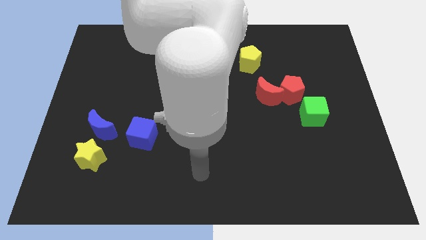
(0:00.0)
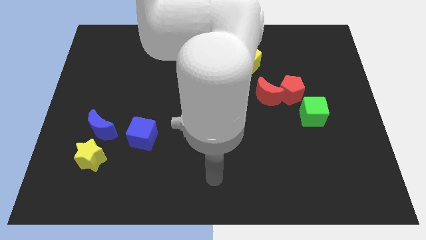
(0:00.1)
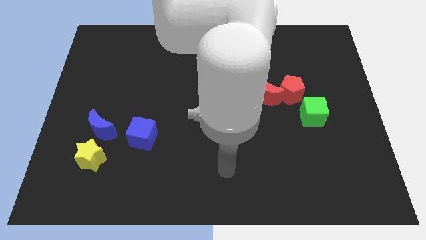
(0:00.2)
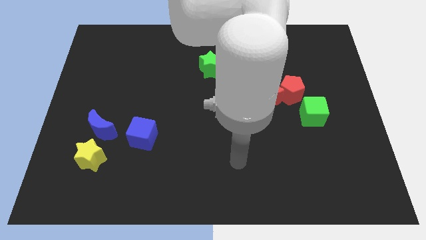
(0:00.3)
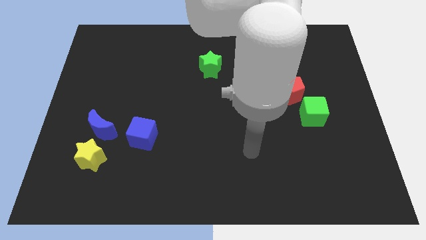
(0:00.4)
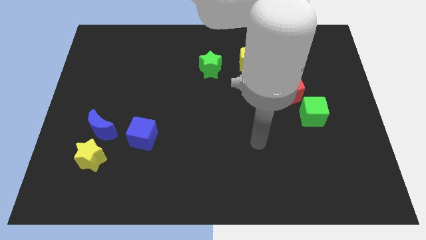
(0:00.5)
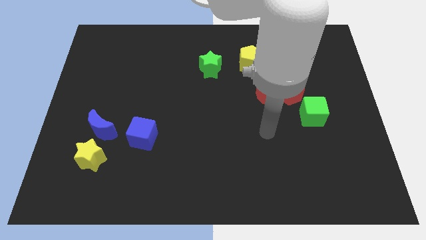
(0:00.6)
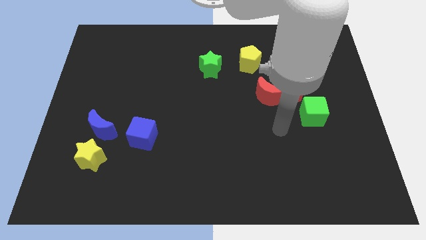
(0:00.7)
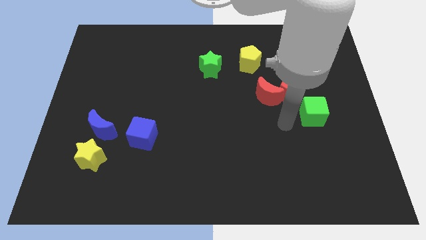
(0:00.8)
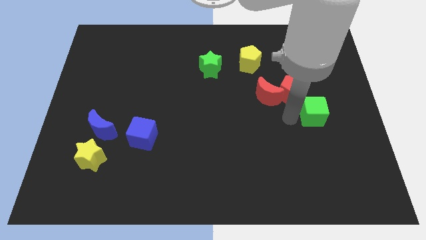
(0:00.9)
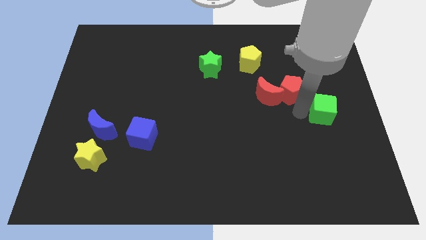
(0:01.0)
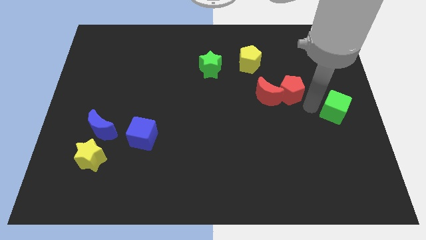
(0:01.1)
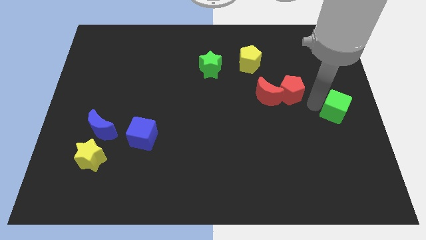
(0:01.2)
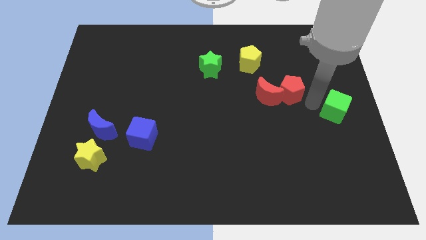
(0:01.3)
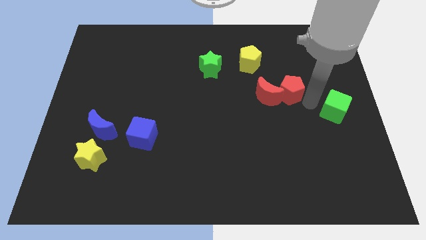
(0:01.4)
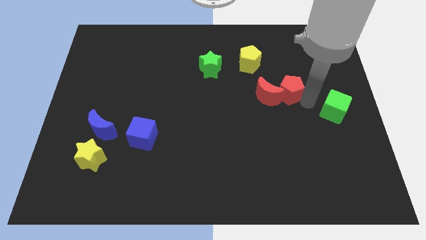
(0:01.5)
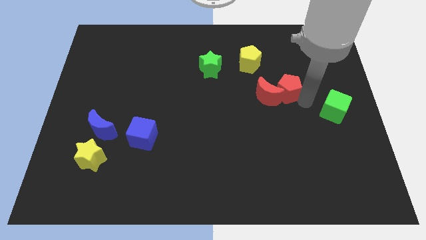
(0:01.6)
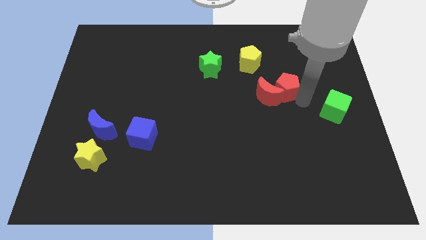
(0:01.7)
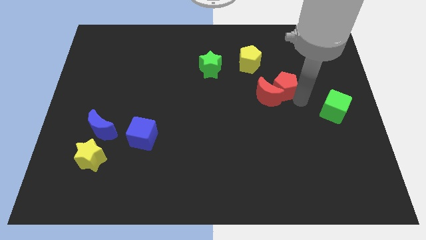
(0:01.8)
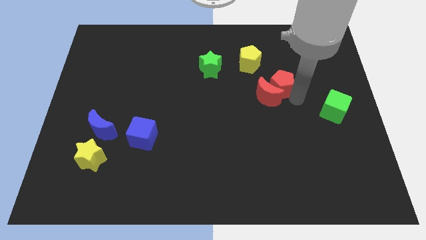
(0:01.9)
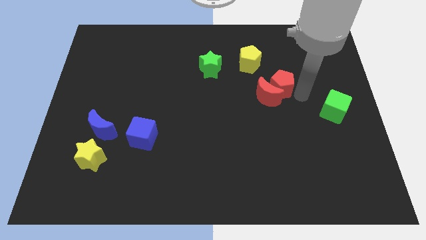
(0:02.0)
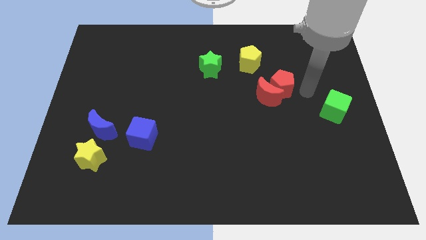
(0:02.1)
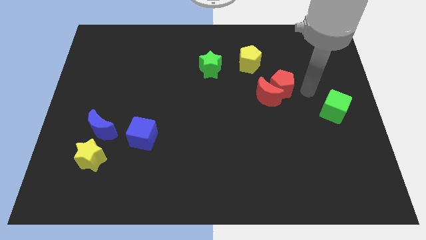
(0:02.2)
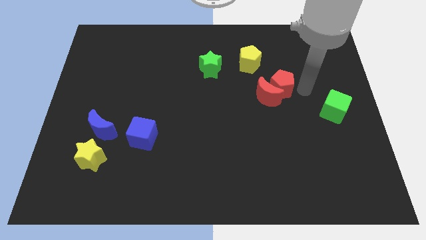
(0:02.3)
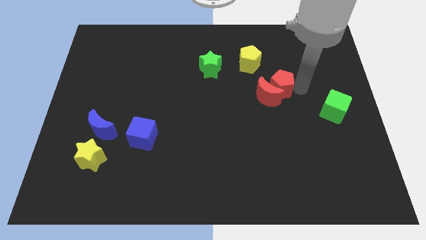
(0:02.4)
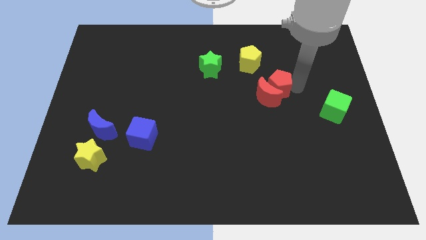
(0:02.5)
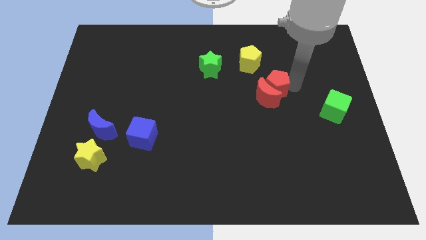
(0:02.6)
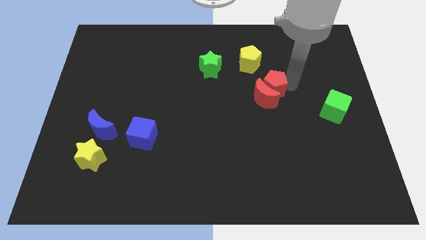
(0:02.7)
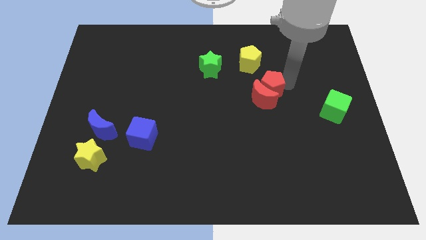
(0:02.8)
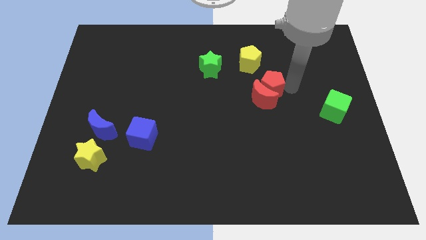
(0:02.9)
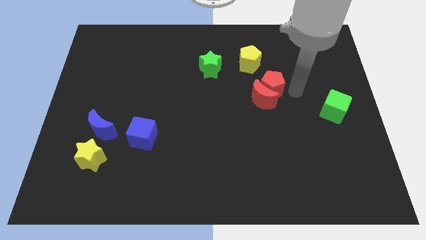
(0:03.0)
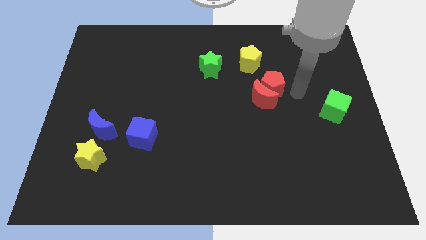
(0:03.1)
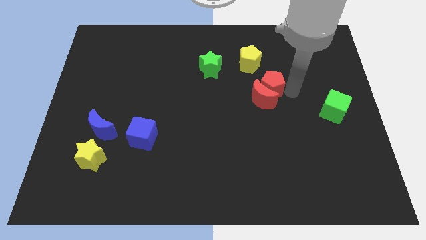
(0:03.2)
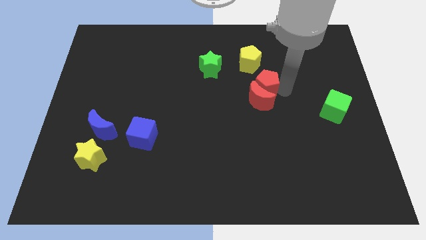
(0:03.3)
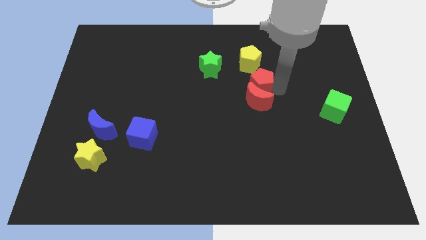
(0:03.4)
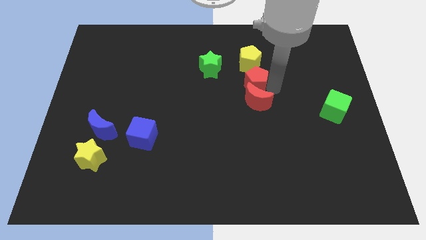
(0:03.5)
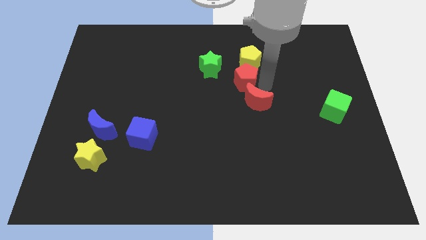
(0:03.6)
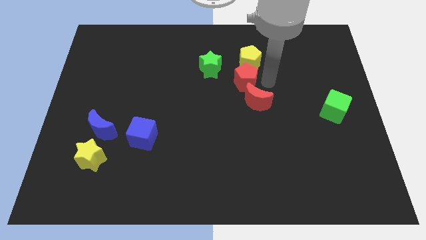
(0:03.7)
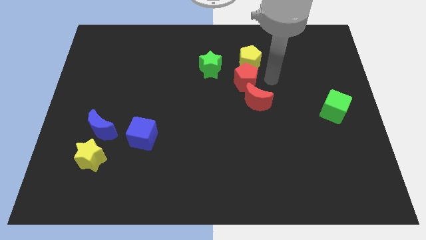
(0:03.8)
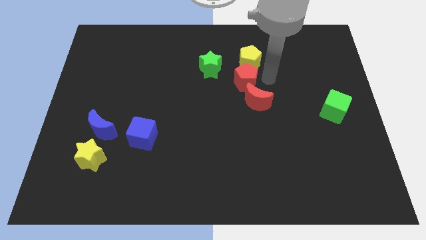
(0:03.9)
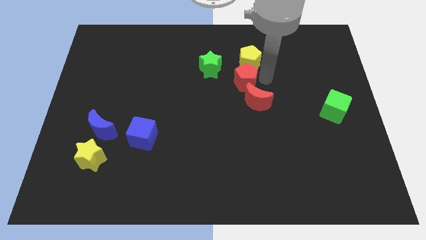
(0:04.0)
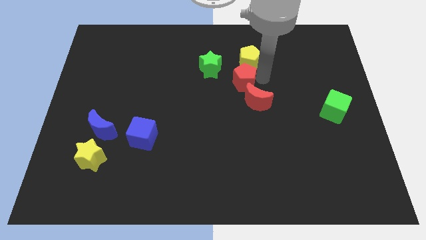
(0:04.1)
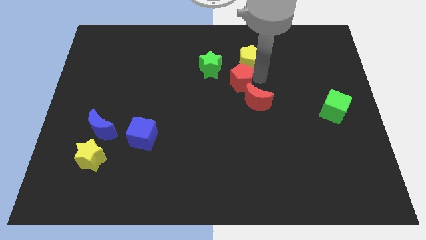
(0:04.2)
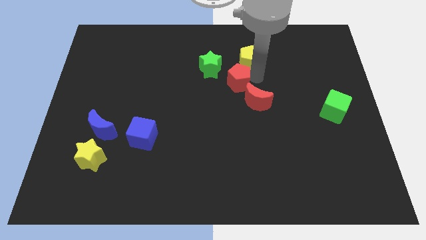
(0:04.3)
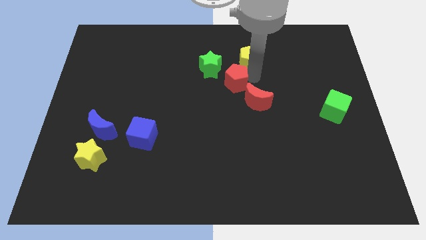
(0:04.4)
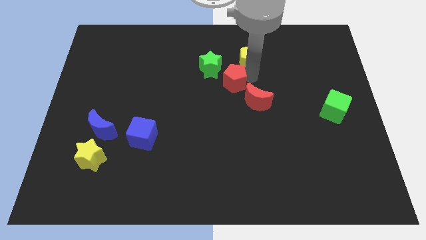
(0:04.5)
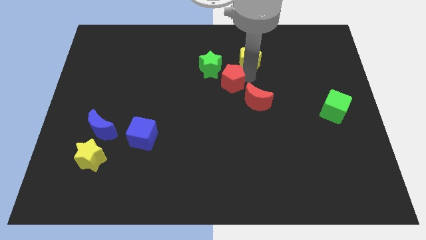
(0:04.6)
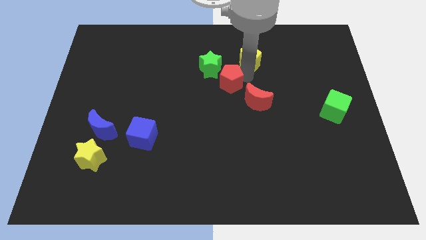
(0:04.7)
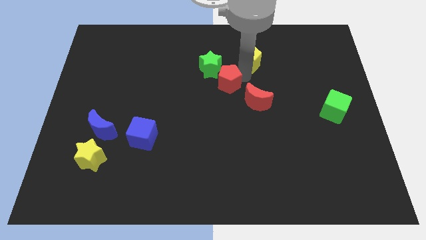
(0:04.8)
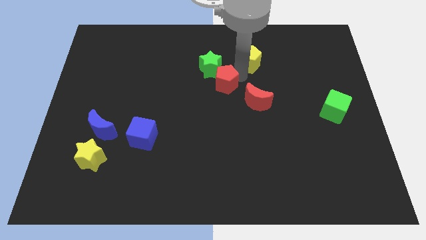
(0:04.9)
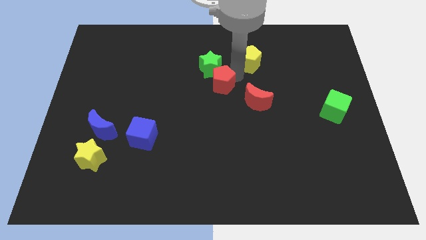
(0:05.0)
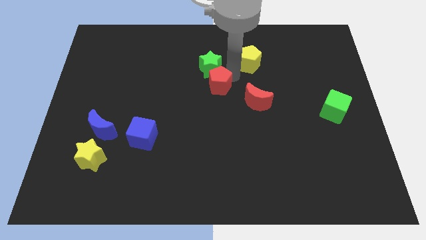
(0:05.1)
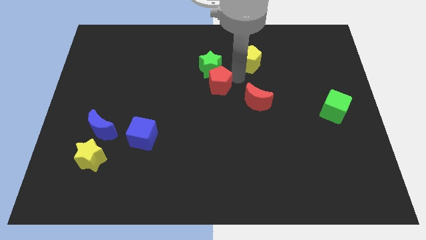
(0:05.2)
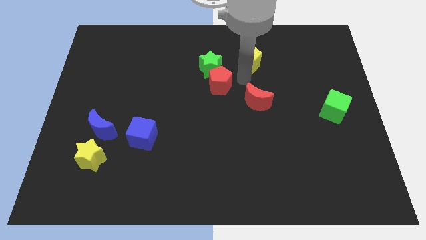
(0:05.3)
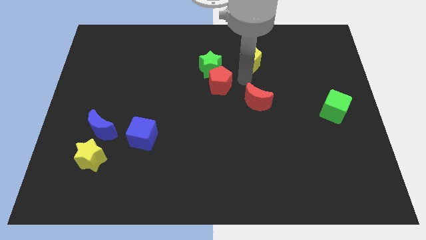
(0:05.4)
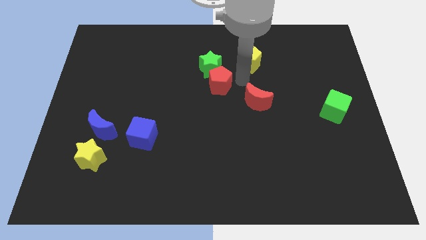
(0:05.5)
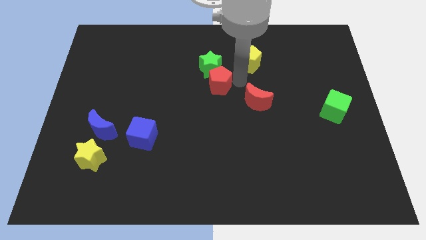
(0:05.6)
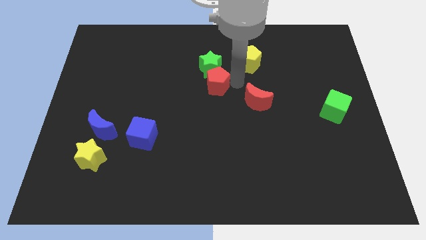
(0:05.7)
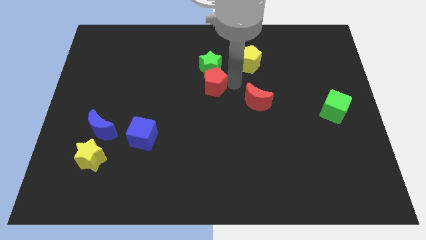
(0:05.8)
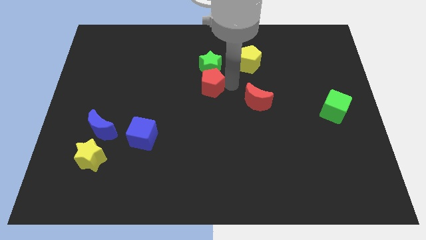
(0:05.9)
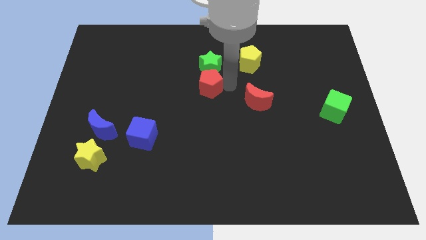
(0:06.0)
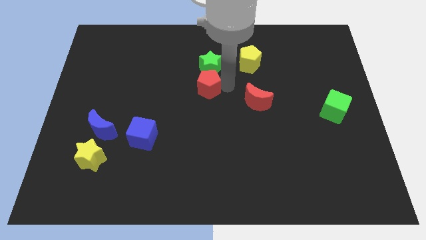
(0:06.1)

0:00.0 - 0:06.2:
push the red pentagon left

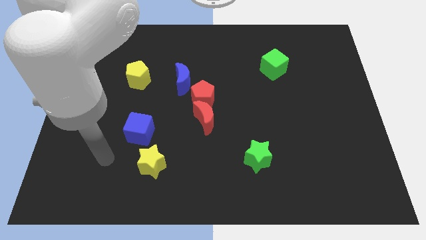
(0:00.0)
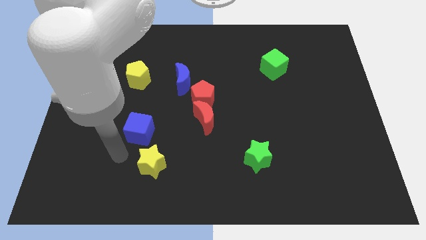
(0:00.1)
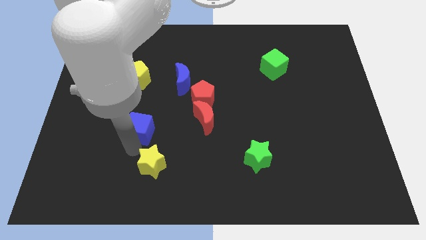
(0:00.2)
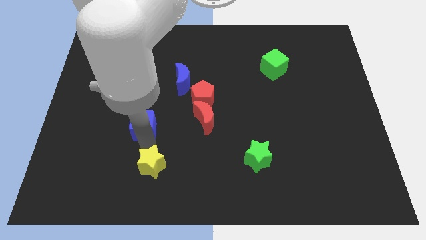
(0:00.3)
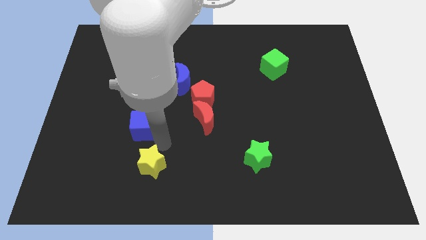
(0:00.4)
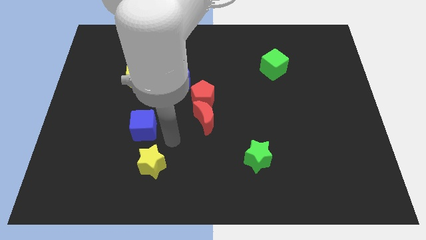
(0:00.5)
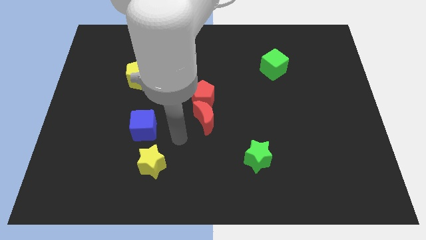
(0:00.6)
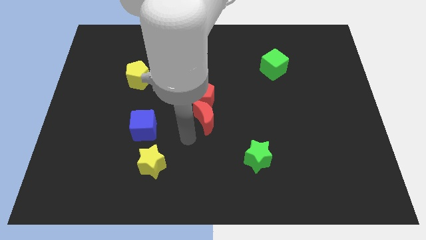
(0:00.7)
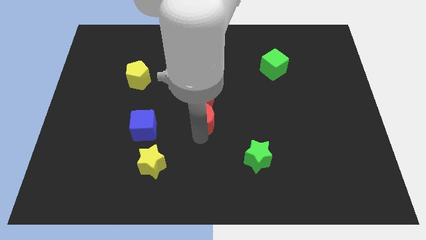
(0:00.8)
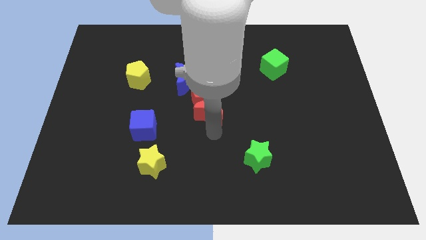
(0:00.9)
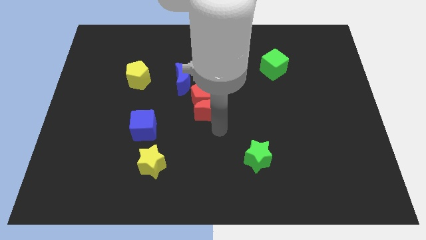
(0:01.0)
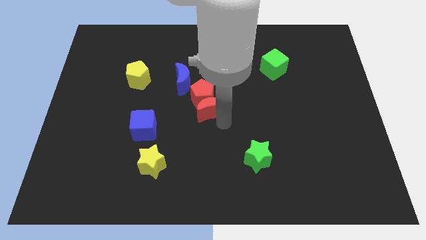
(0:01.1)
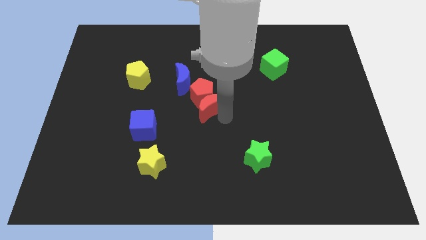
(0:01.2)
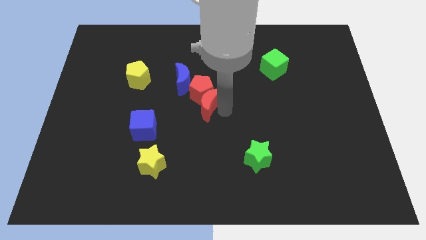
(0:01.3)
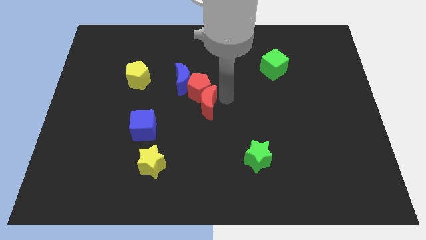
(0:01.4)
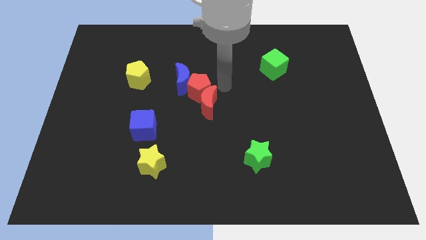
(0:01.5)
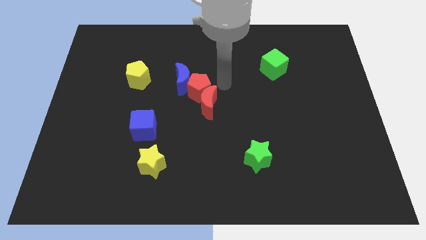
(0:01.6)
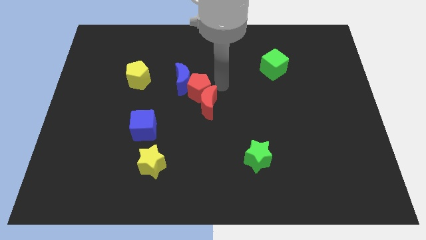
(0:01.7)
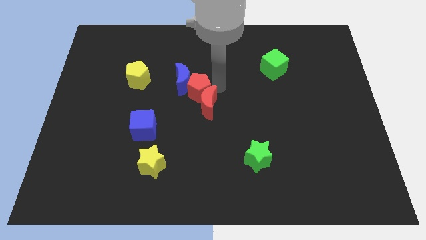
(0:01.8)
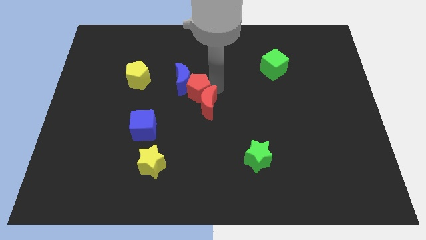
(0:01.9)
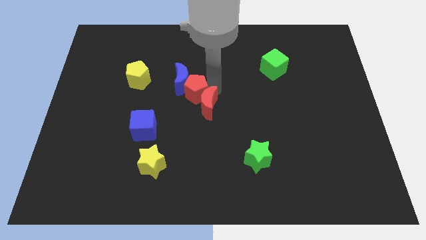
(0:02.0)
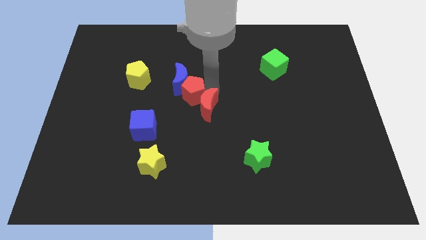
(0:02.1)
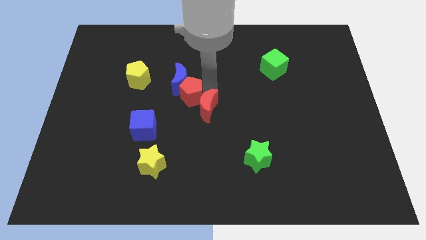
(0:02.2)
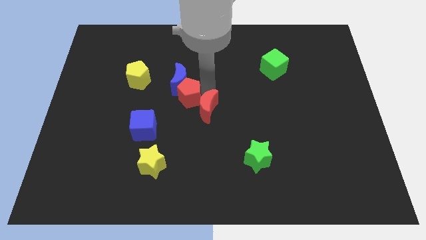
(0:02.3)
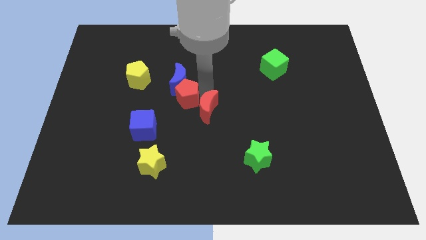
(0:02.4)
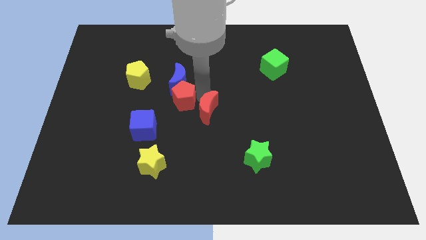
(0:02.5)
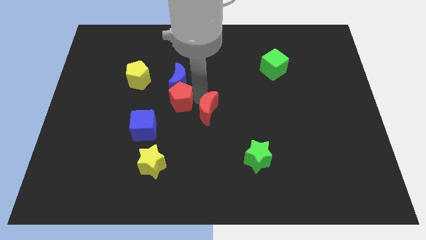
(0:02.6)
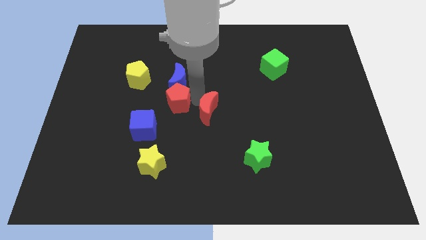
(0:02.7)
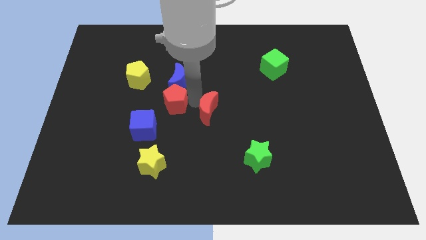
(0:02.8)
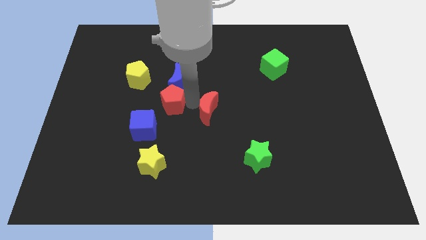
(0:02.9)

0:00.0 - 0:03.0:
slightly slide the red pentagon to the left
